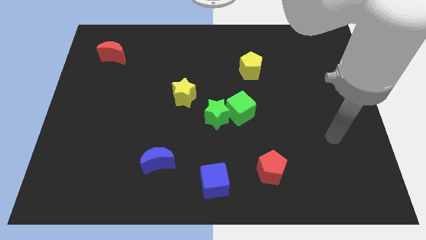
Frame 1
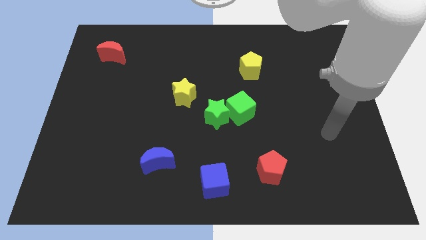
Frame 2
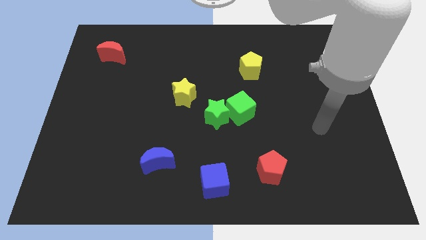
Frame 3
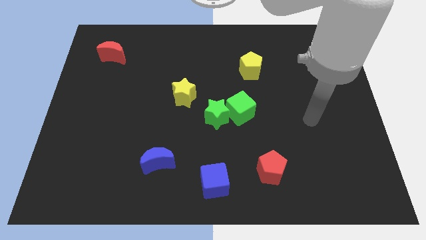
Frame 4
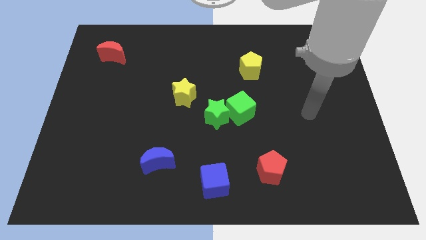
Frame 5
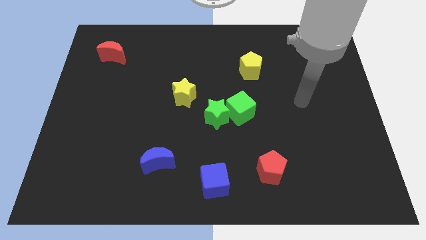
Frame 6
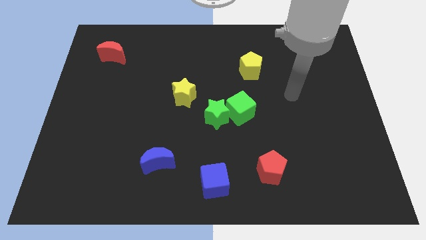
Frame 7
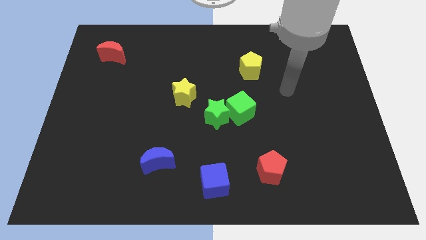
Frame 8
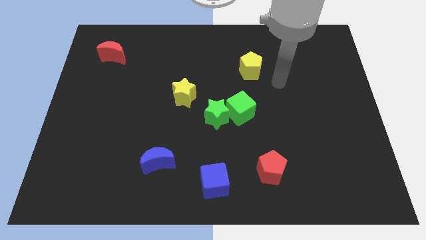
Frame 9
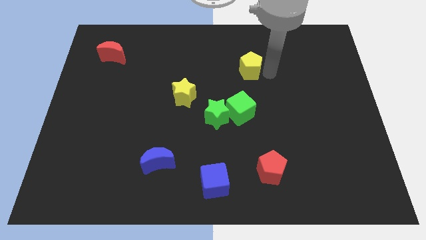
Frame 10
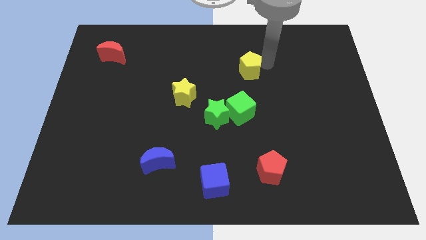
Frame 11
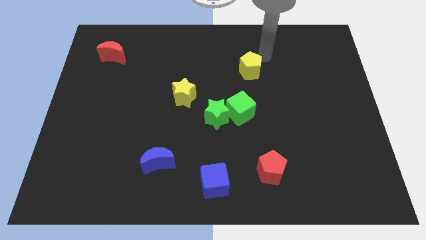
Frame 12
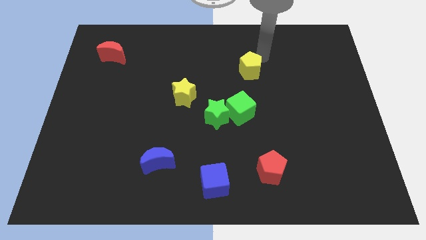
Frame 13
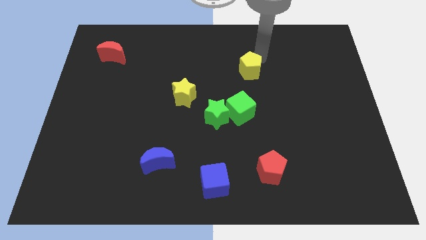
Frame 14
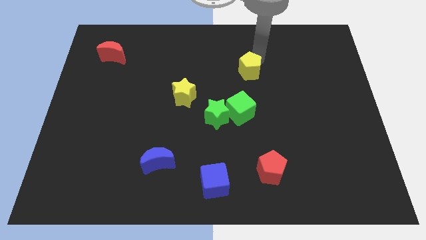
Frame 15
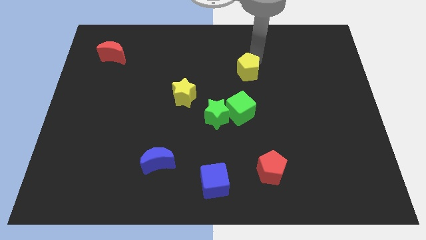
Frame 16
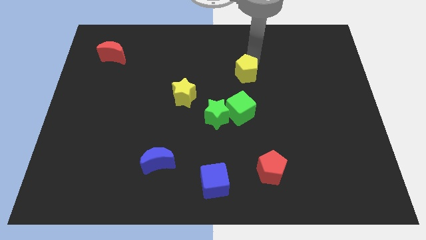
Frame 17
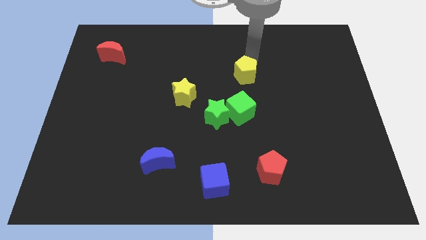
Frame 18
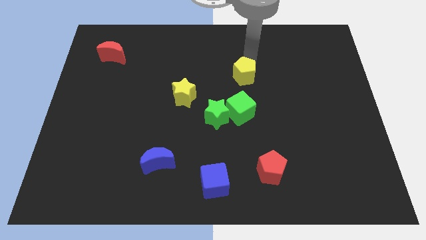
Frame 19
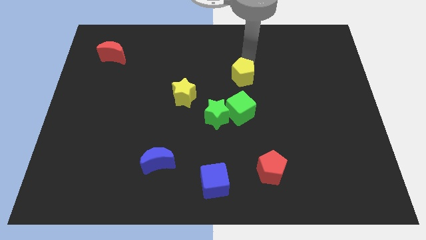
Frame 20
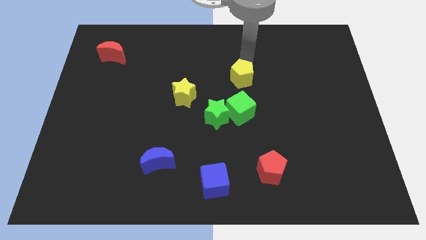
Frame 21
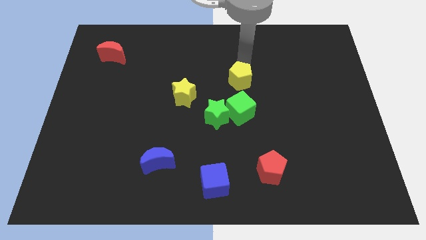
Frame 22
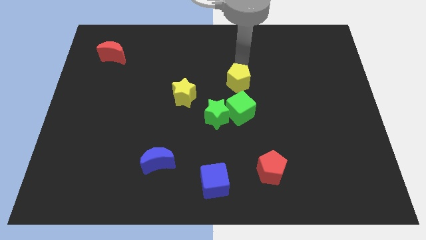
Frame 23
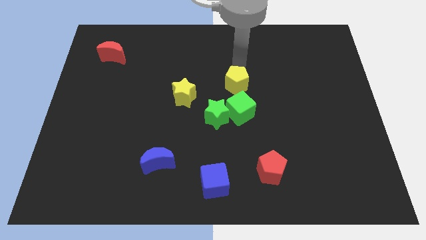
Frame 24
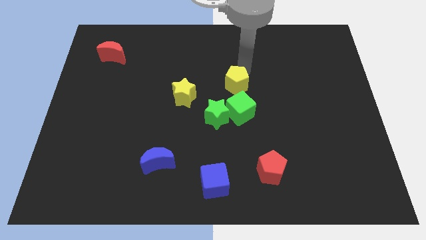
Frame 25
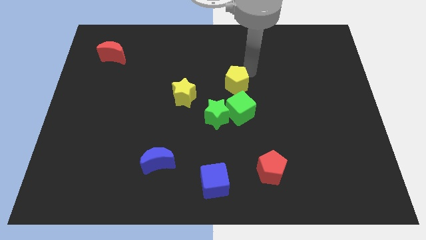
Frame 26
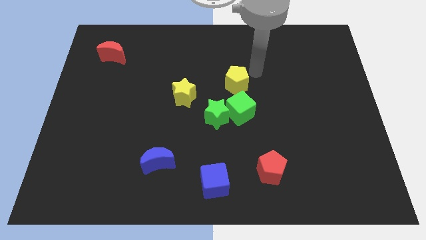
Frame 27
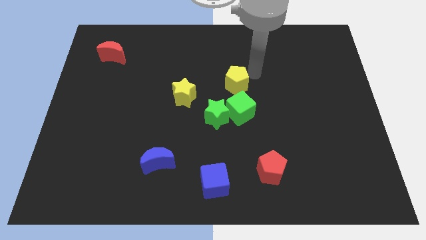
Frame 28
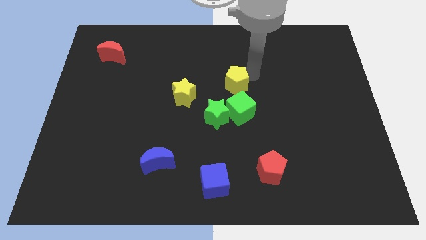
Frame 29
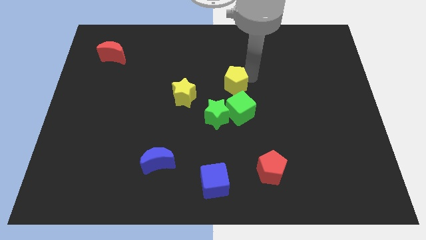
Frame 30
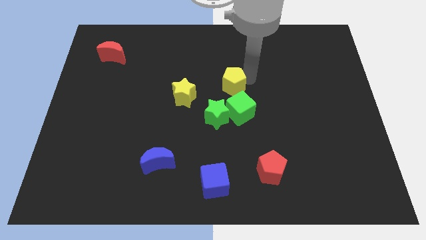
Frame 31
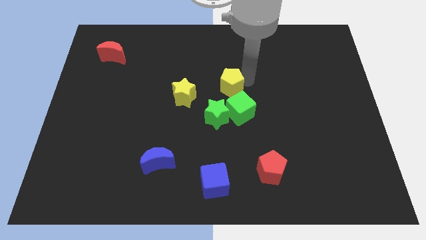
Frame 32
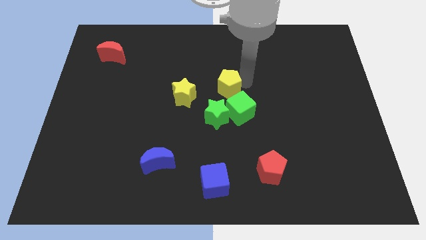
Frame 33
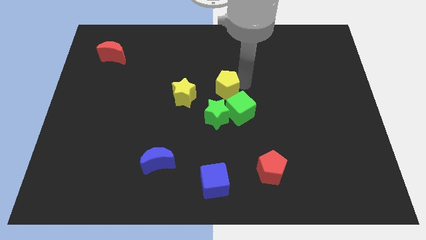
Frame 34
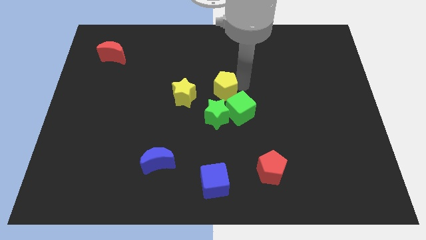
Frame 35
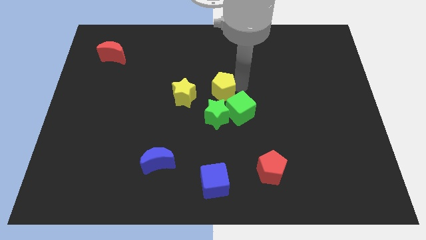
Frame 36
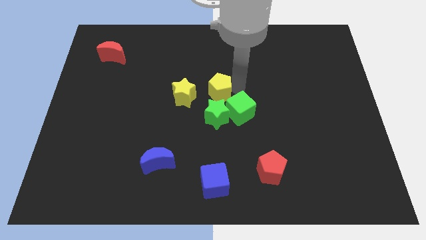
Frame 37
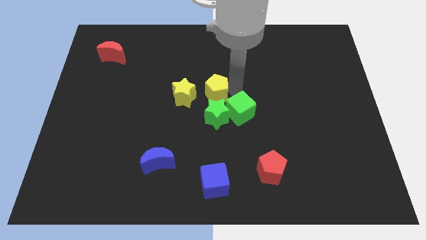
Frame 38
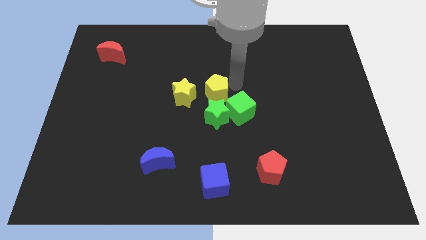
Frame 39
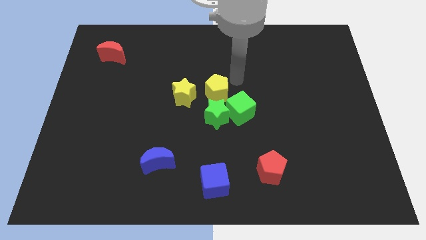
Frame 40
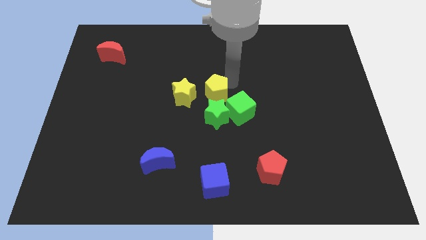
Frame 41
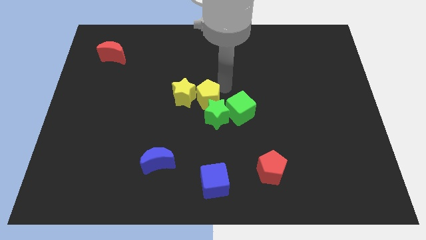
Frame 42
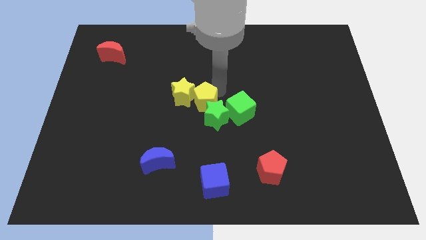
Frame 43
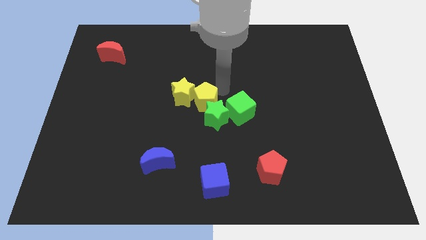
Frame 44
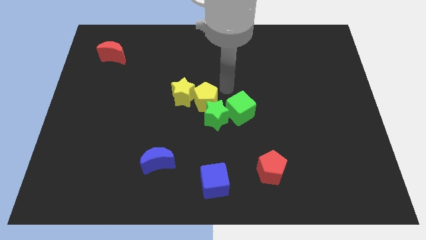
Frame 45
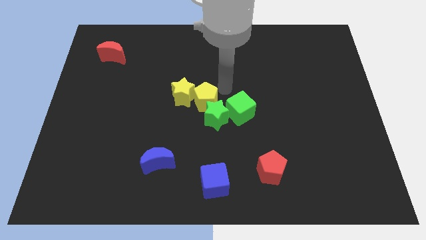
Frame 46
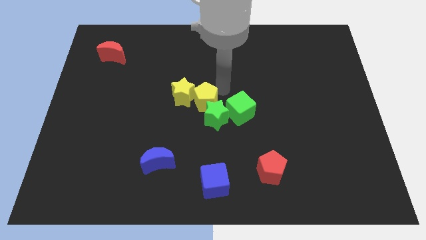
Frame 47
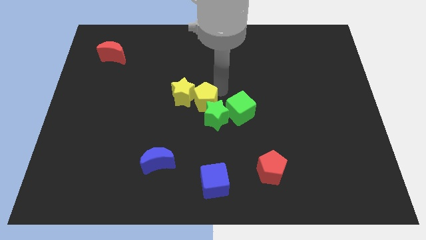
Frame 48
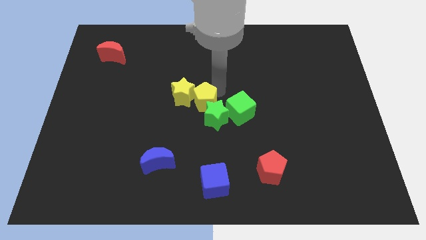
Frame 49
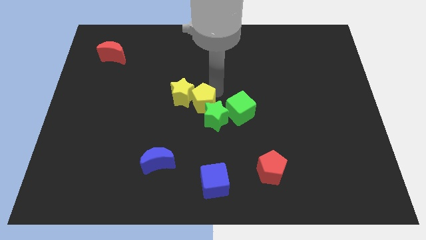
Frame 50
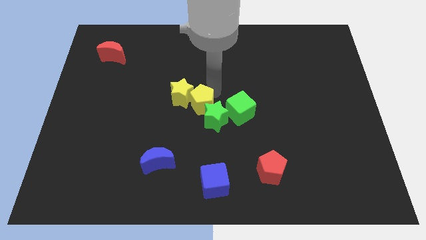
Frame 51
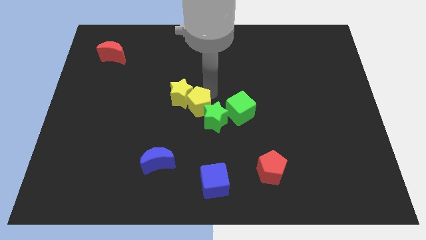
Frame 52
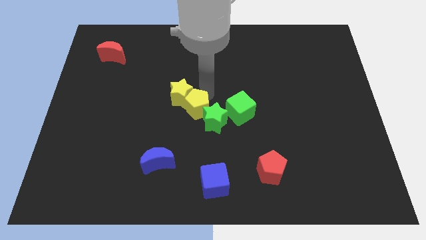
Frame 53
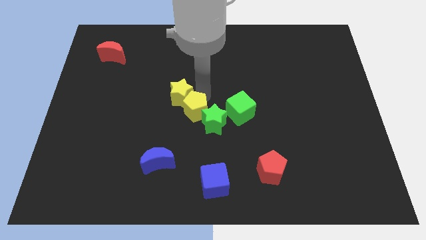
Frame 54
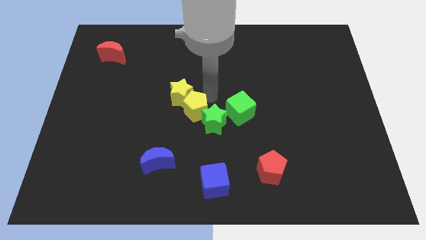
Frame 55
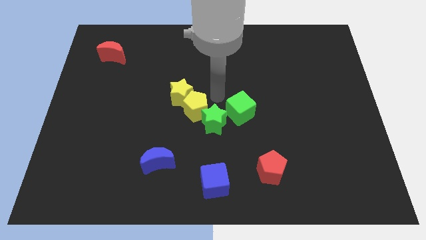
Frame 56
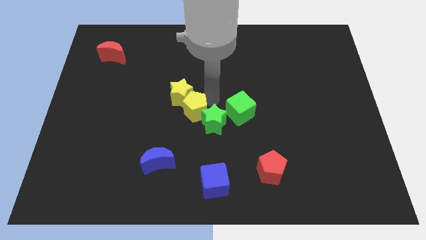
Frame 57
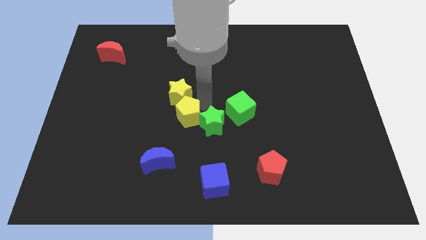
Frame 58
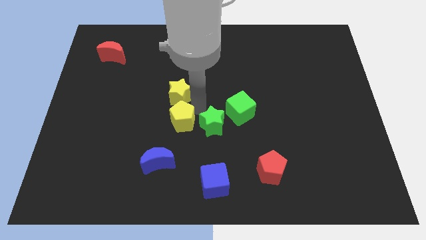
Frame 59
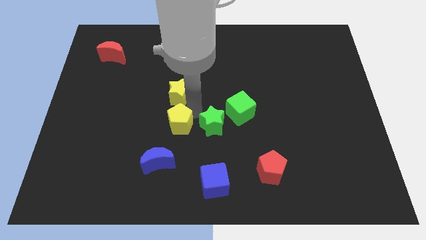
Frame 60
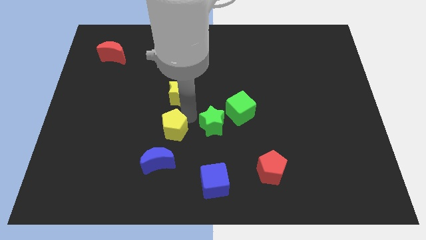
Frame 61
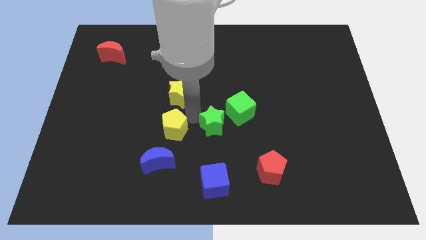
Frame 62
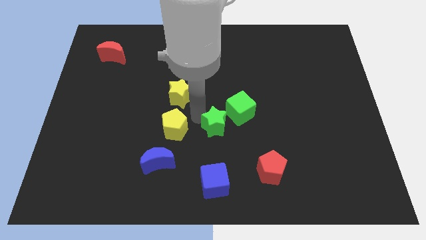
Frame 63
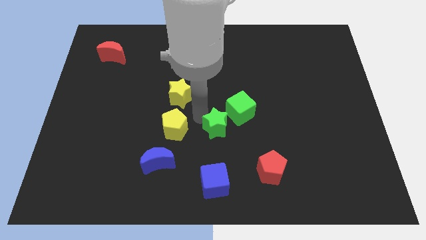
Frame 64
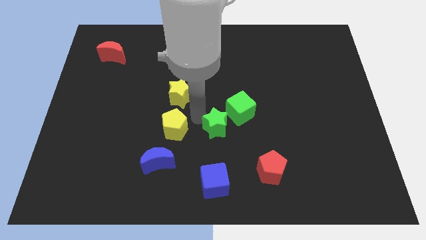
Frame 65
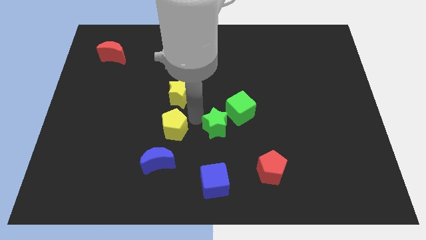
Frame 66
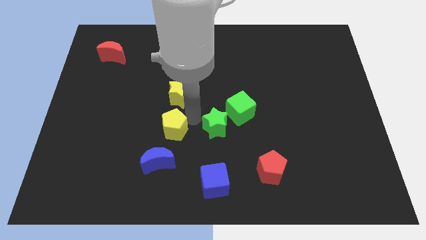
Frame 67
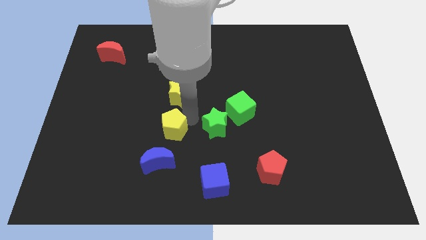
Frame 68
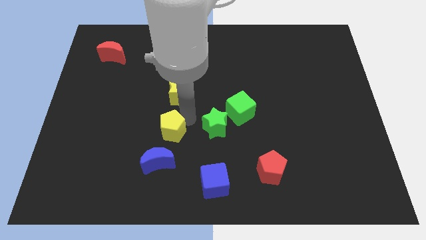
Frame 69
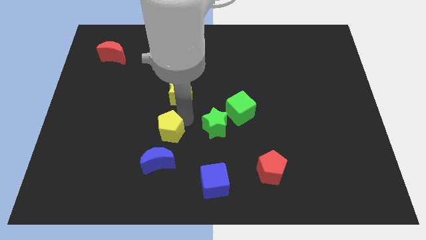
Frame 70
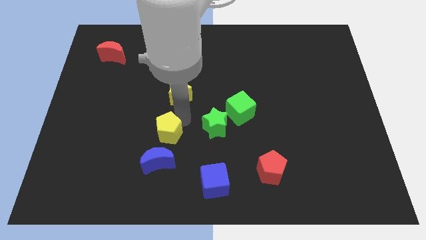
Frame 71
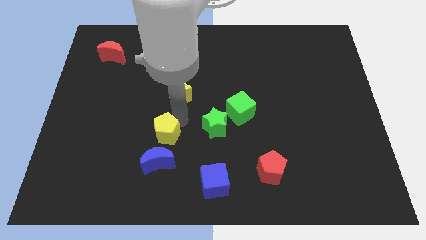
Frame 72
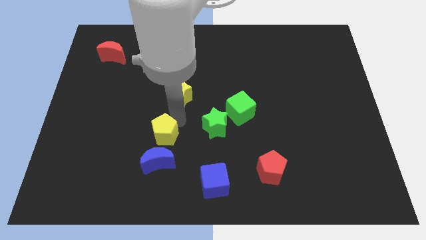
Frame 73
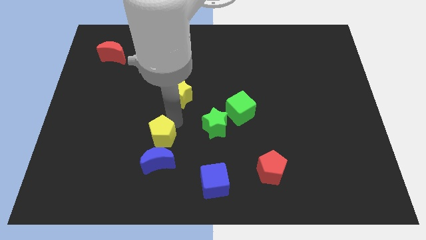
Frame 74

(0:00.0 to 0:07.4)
move the yellow pentagon diagonally up and to the left of the blue moon
